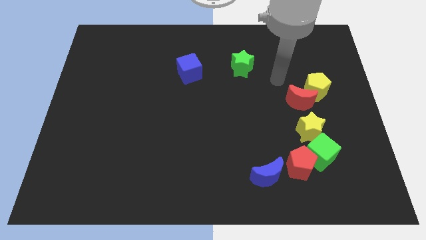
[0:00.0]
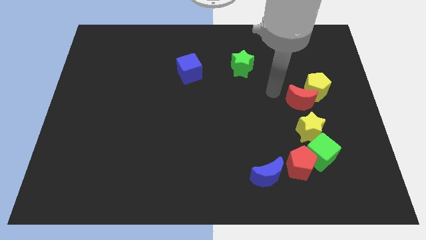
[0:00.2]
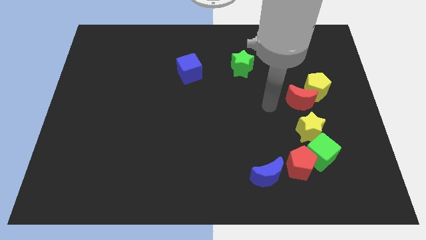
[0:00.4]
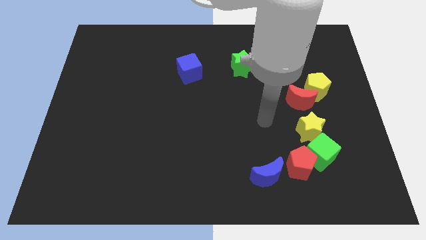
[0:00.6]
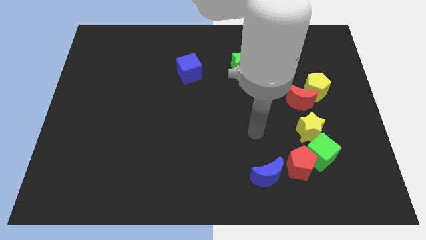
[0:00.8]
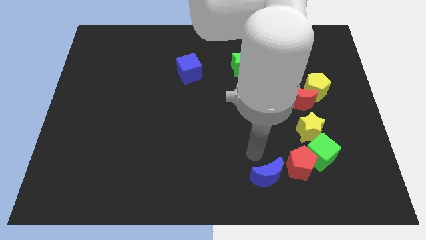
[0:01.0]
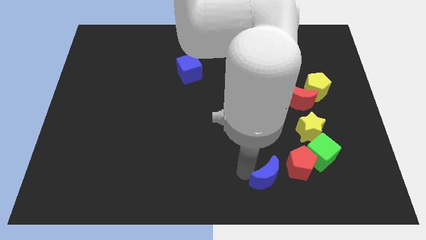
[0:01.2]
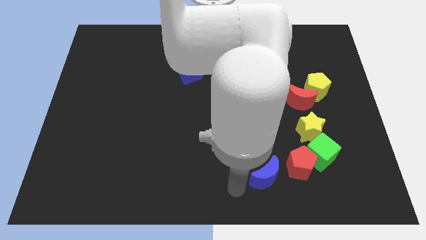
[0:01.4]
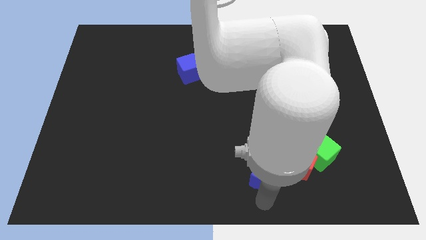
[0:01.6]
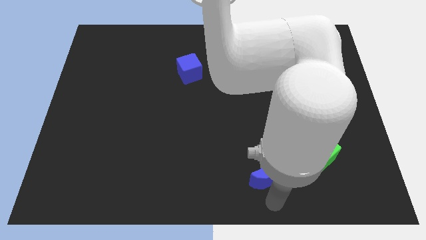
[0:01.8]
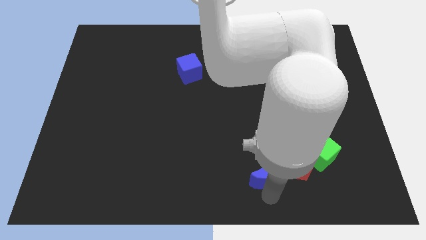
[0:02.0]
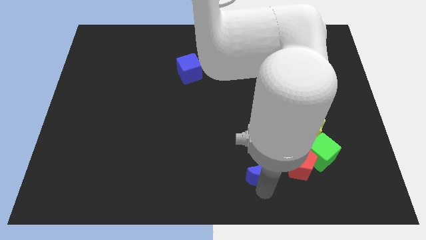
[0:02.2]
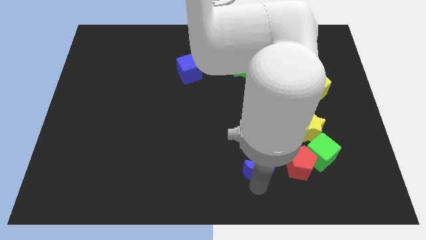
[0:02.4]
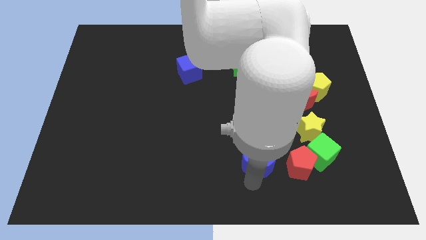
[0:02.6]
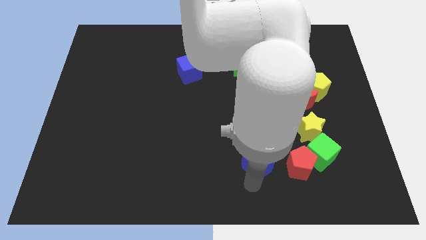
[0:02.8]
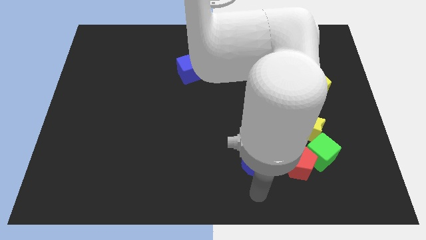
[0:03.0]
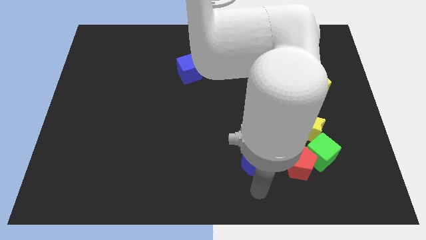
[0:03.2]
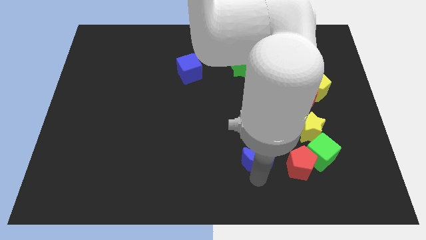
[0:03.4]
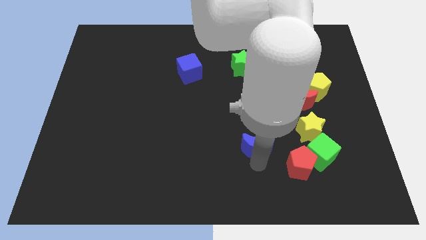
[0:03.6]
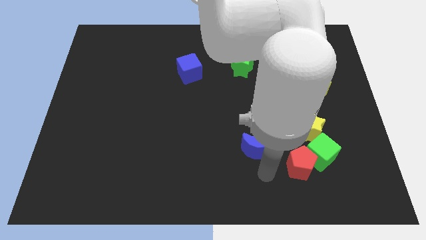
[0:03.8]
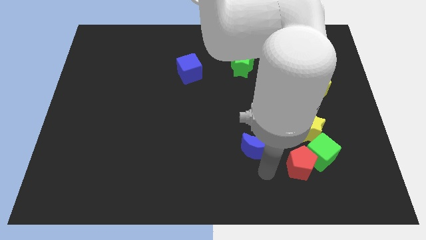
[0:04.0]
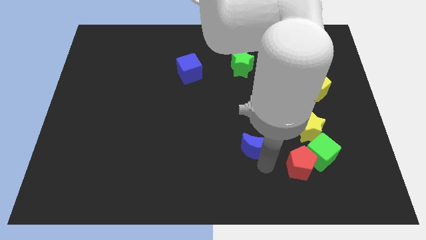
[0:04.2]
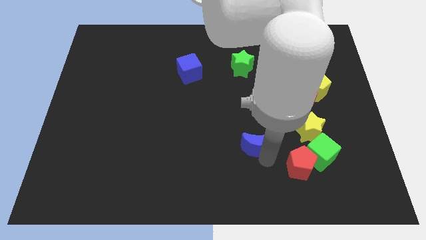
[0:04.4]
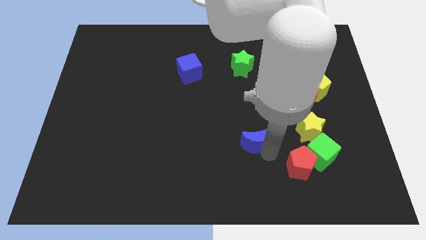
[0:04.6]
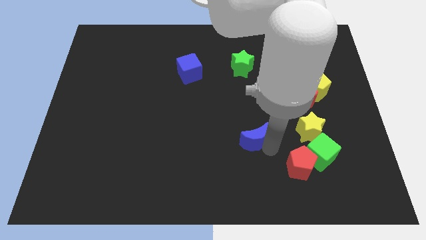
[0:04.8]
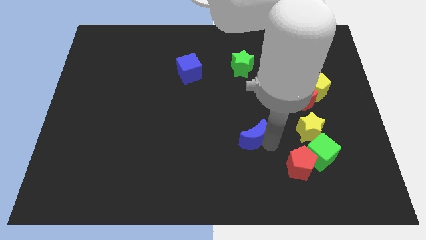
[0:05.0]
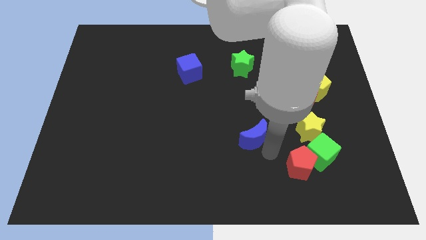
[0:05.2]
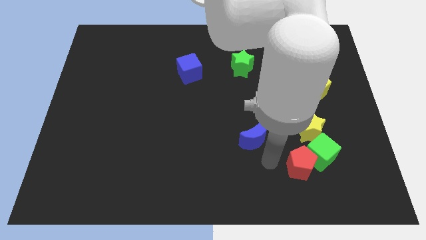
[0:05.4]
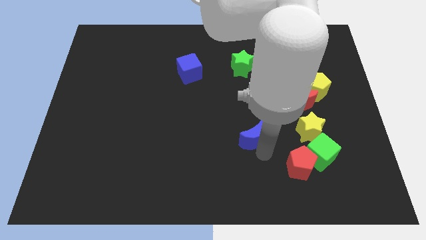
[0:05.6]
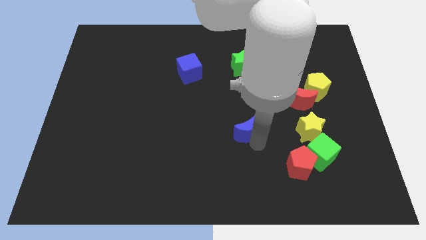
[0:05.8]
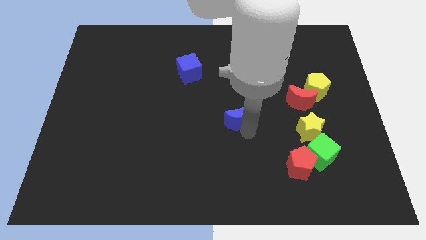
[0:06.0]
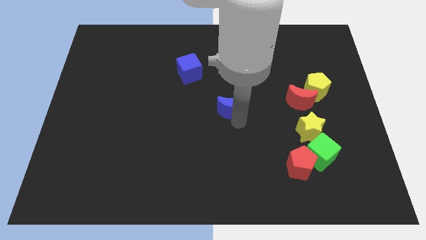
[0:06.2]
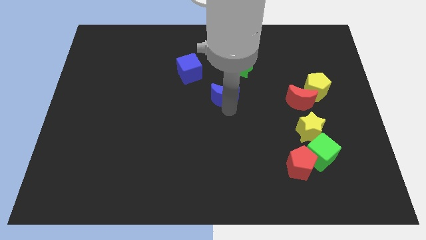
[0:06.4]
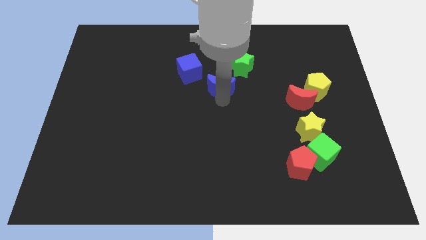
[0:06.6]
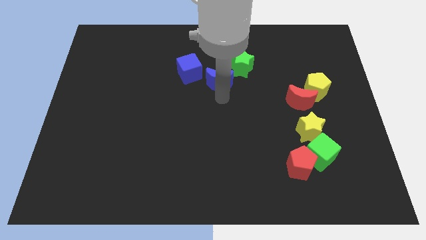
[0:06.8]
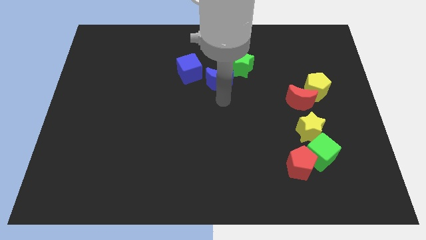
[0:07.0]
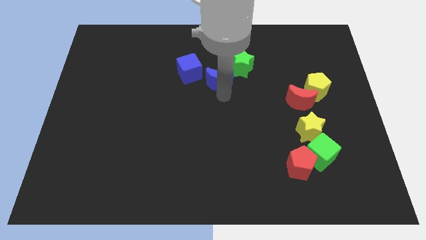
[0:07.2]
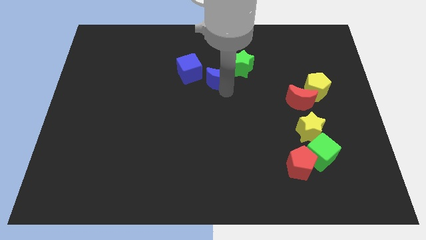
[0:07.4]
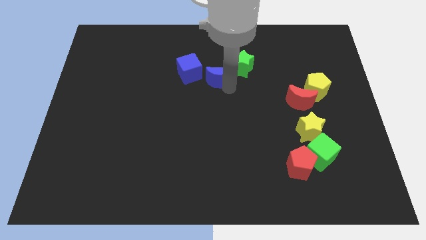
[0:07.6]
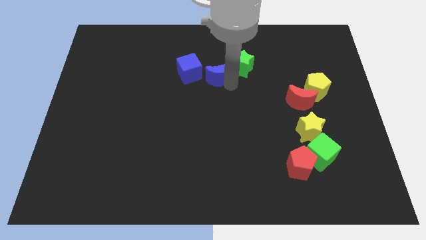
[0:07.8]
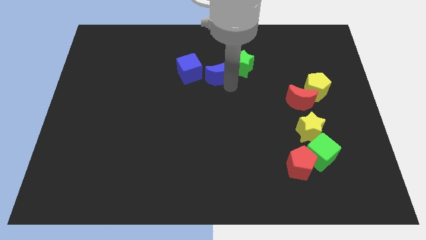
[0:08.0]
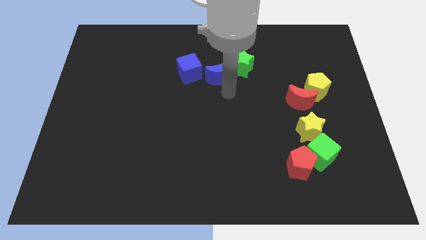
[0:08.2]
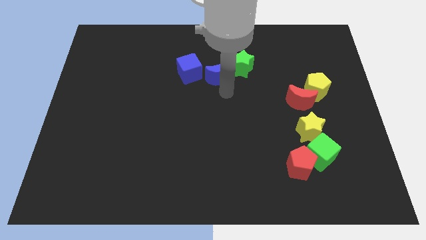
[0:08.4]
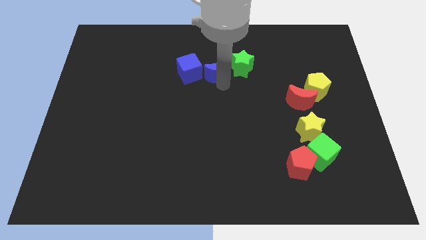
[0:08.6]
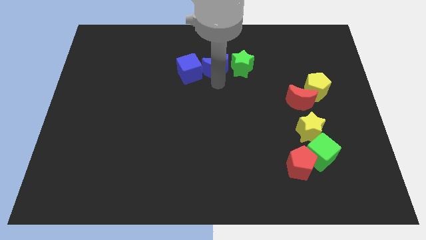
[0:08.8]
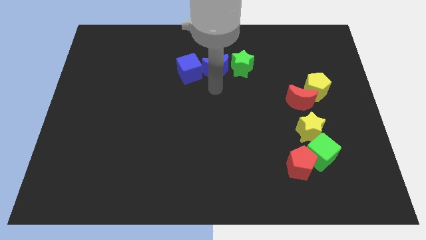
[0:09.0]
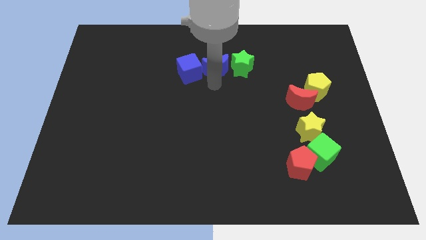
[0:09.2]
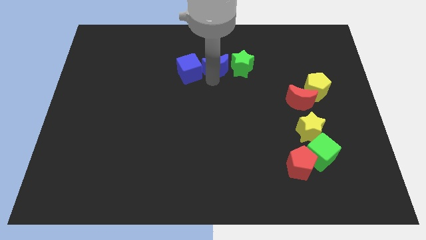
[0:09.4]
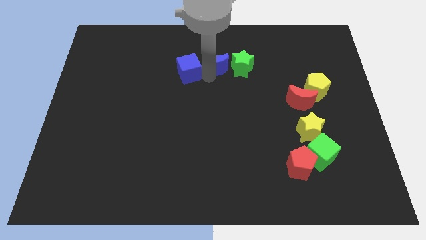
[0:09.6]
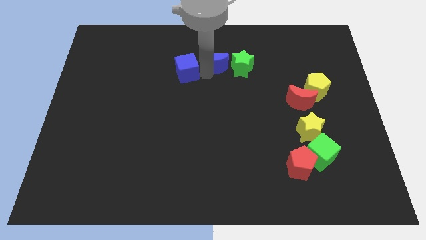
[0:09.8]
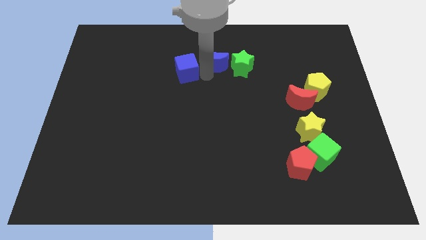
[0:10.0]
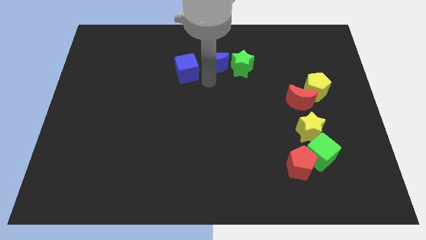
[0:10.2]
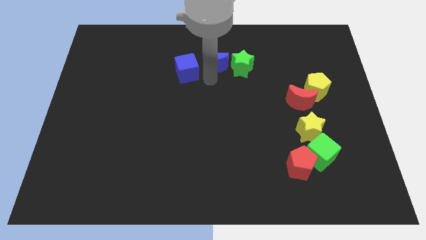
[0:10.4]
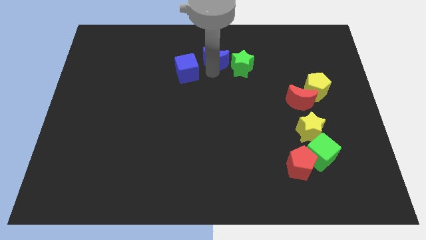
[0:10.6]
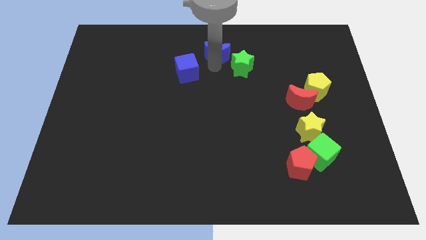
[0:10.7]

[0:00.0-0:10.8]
move the blue moon to the top

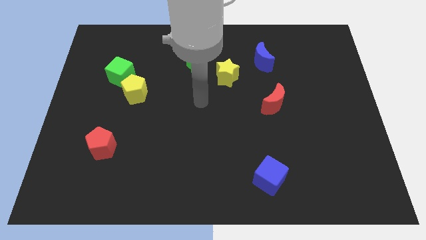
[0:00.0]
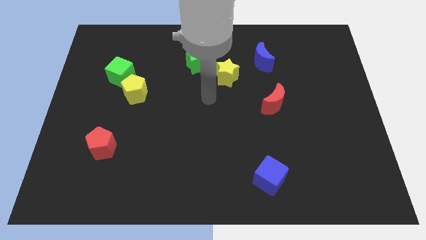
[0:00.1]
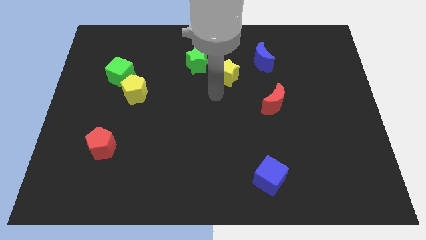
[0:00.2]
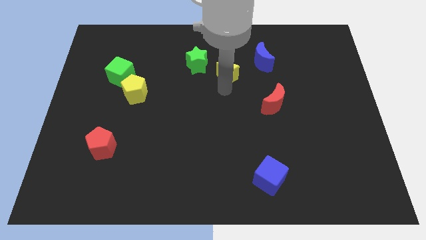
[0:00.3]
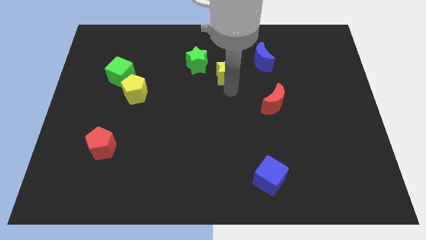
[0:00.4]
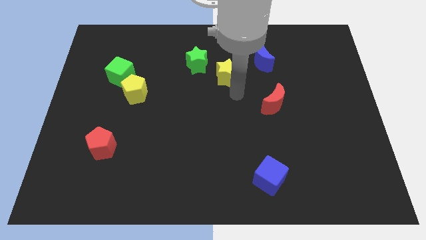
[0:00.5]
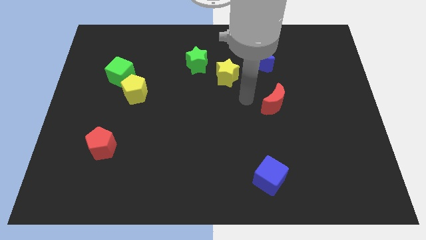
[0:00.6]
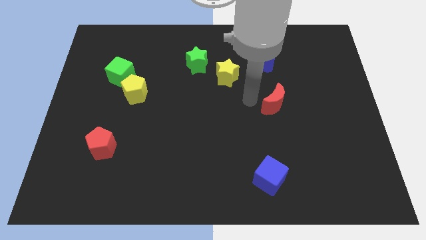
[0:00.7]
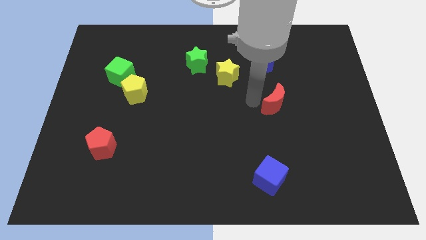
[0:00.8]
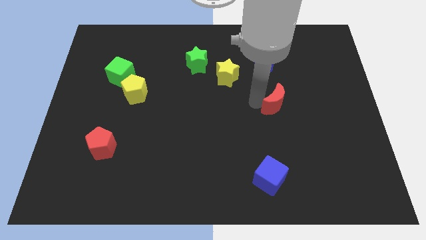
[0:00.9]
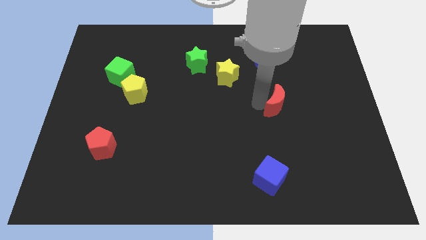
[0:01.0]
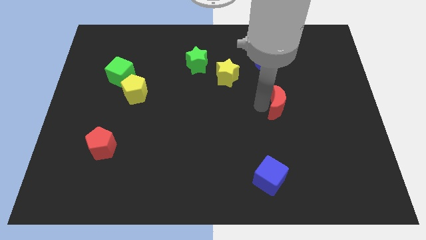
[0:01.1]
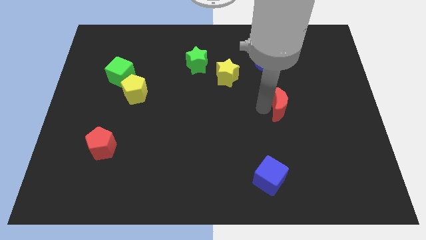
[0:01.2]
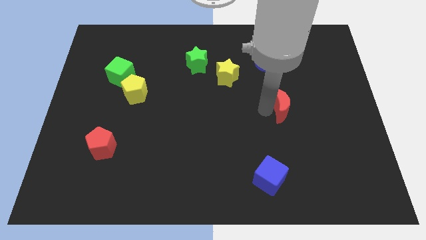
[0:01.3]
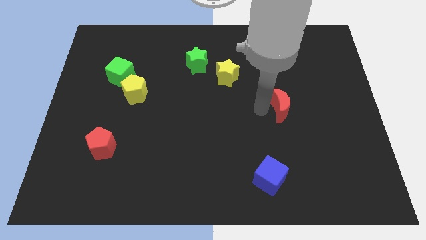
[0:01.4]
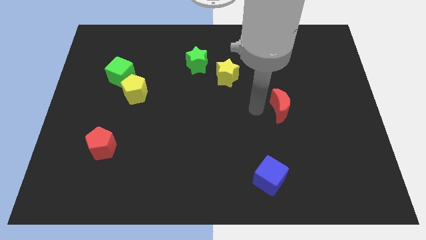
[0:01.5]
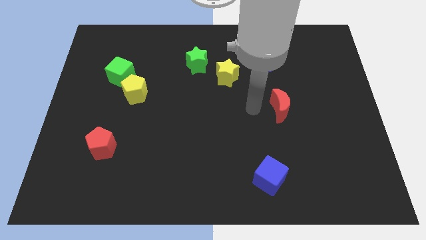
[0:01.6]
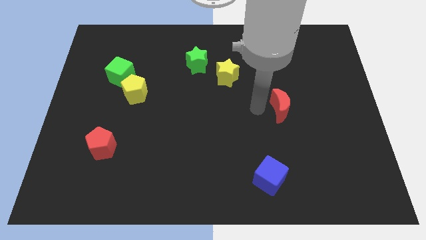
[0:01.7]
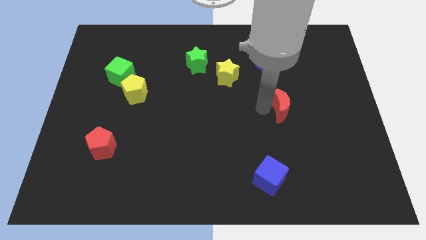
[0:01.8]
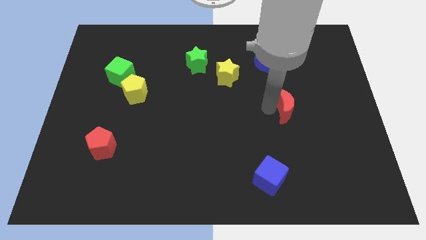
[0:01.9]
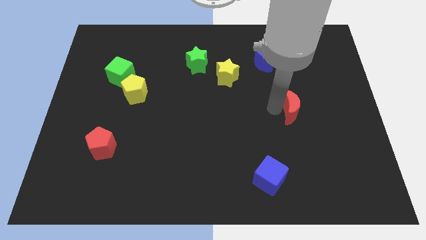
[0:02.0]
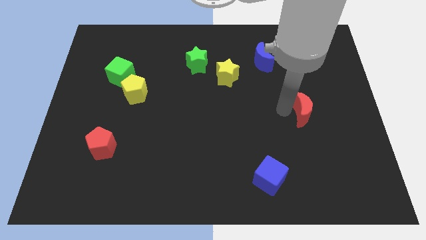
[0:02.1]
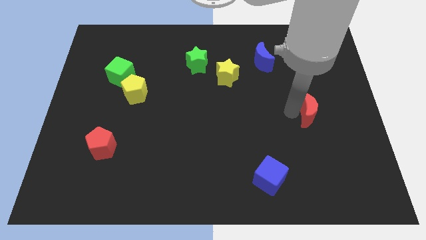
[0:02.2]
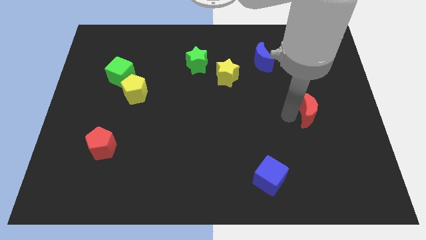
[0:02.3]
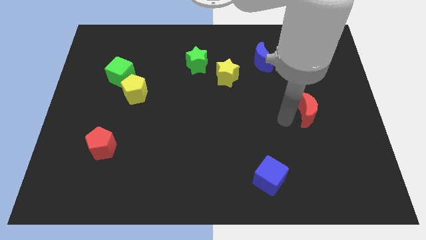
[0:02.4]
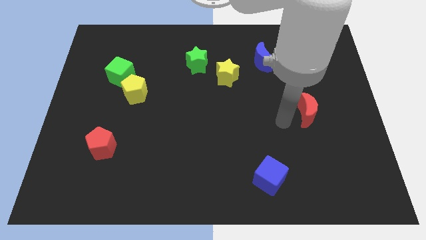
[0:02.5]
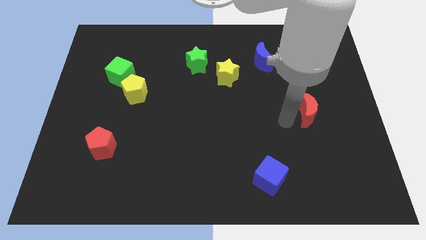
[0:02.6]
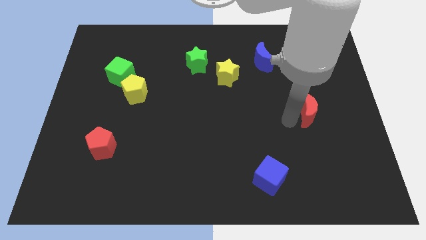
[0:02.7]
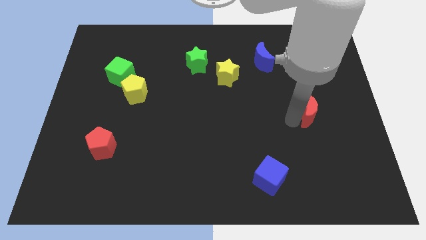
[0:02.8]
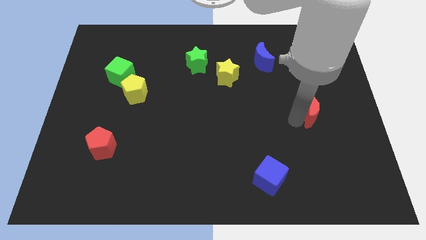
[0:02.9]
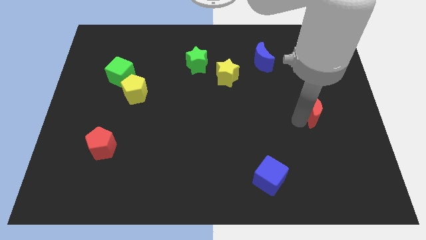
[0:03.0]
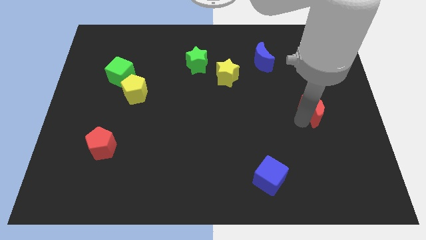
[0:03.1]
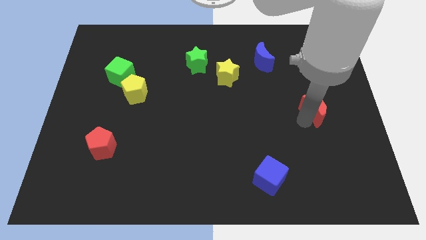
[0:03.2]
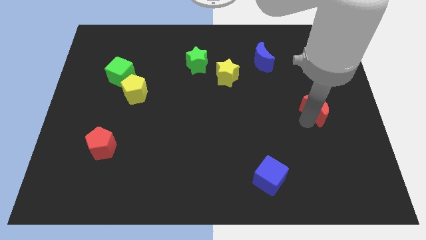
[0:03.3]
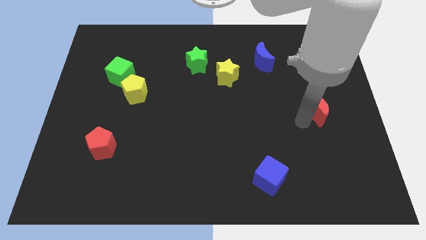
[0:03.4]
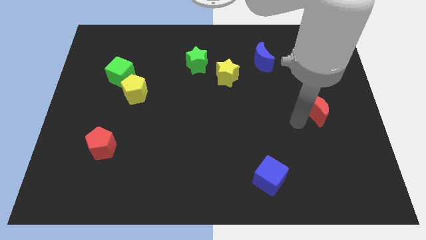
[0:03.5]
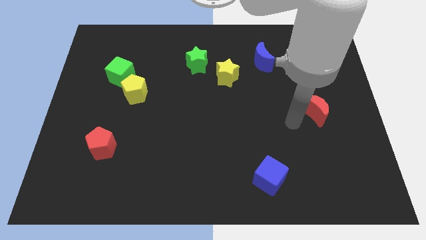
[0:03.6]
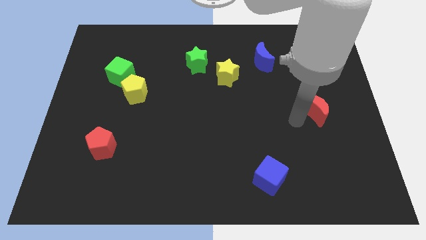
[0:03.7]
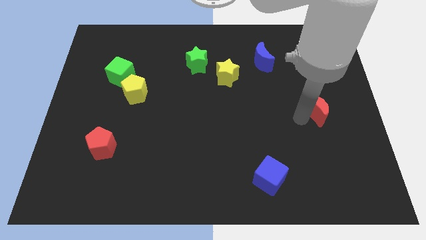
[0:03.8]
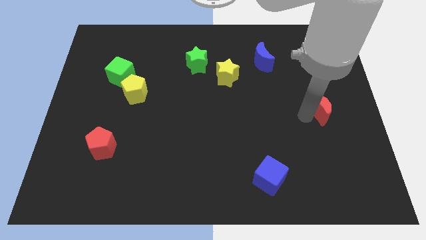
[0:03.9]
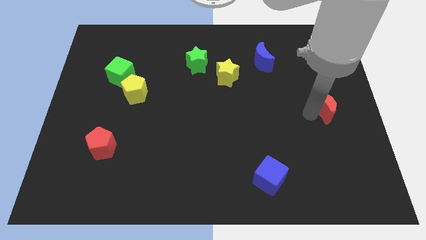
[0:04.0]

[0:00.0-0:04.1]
push the red moon to the right side
